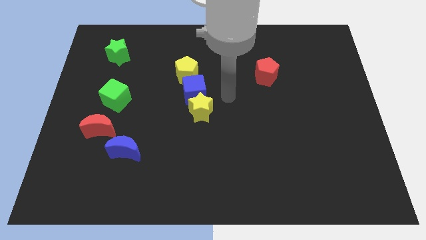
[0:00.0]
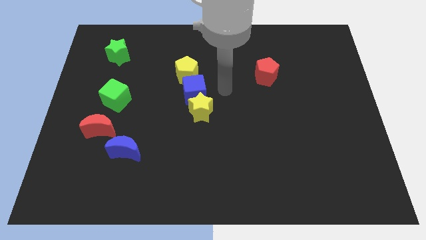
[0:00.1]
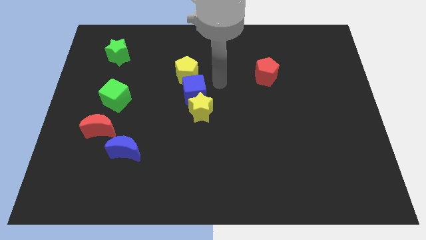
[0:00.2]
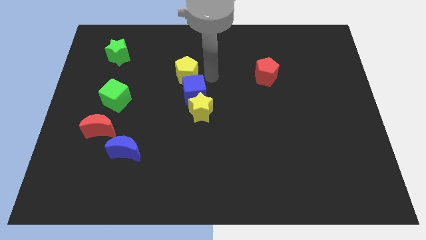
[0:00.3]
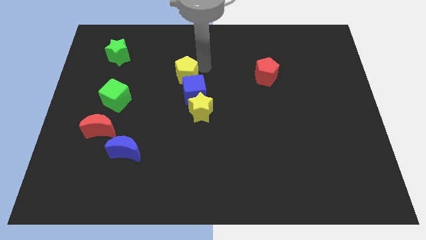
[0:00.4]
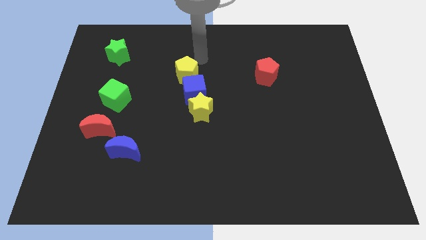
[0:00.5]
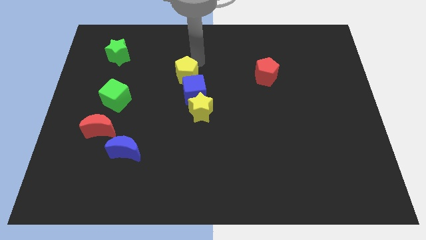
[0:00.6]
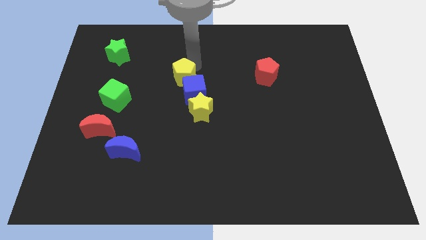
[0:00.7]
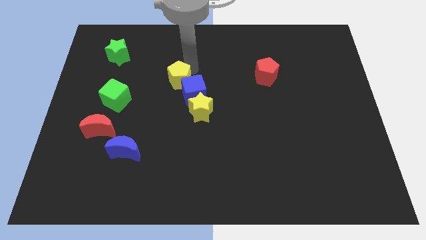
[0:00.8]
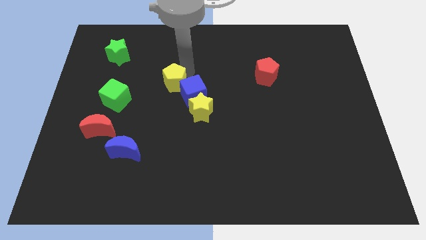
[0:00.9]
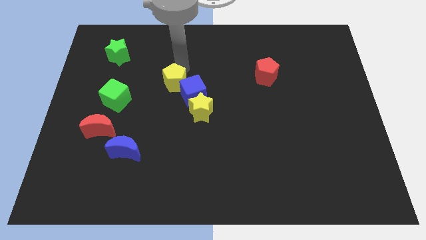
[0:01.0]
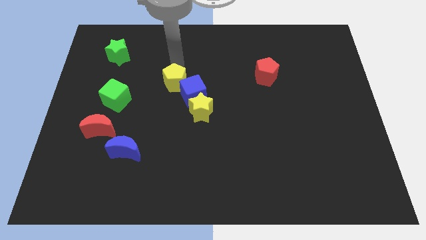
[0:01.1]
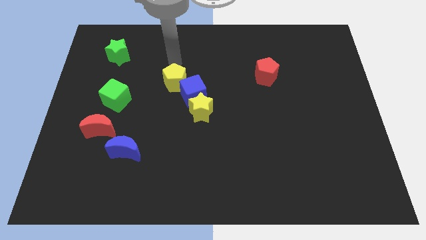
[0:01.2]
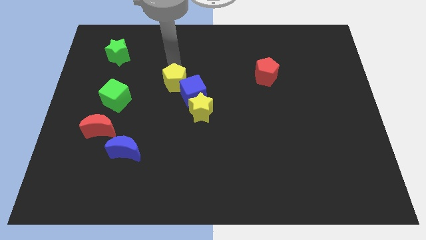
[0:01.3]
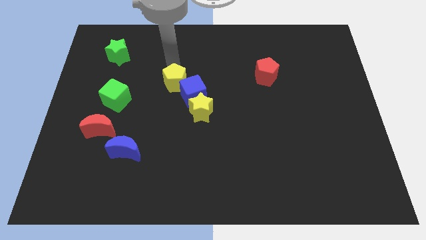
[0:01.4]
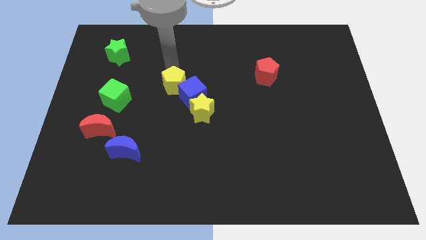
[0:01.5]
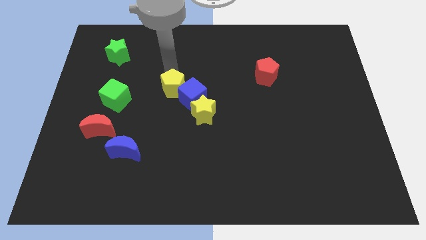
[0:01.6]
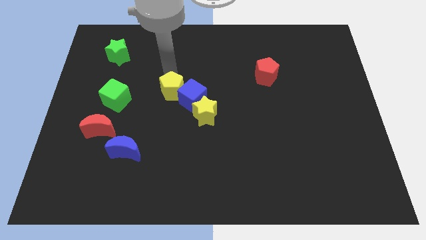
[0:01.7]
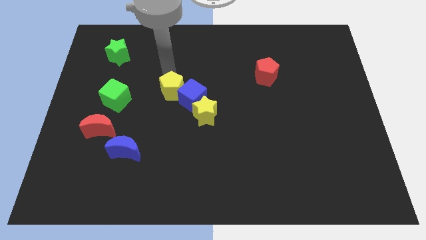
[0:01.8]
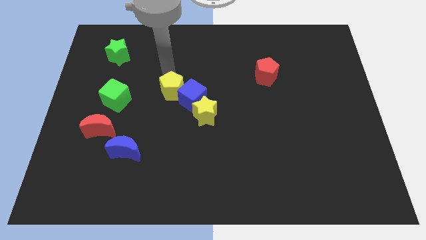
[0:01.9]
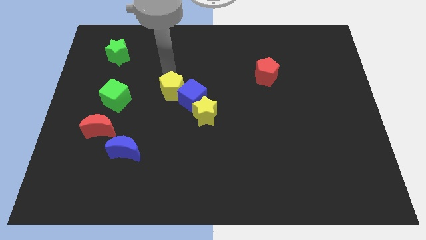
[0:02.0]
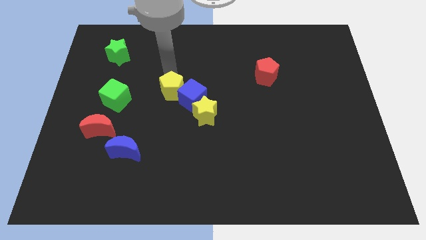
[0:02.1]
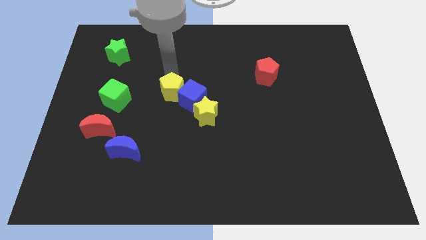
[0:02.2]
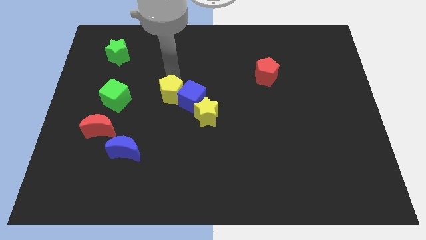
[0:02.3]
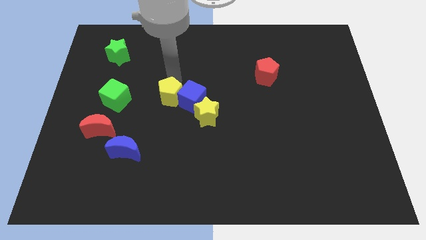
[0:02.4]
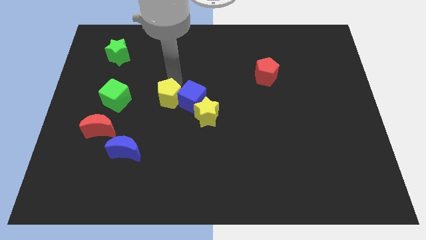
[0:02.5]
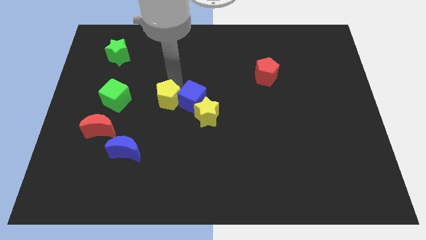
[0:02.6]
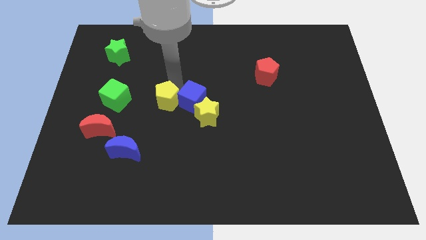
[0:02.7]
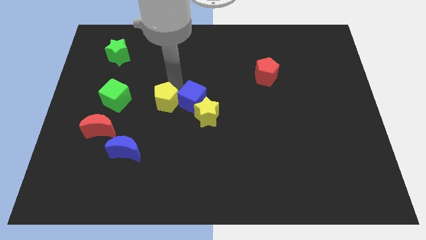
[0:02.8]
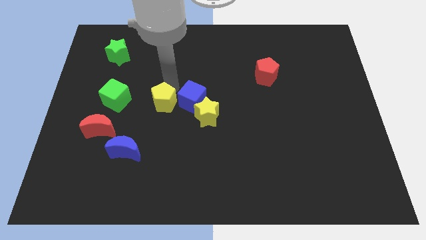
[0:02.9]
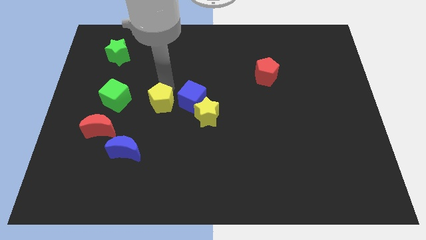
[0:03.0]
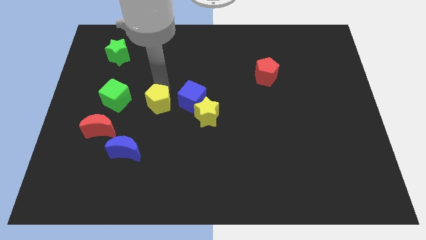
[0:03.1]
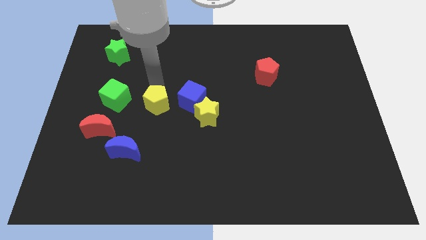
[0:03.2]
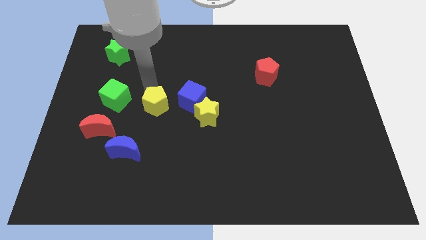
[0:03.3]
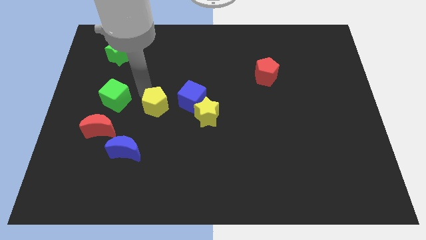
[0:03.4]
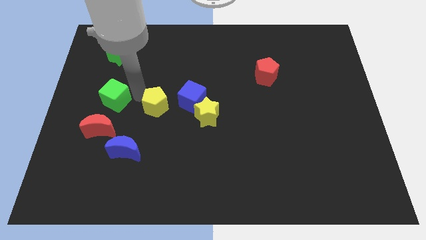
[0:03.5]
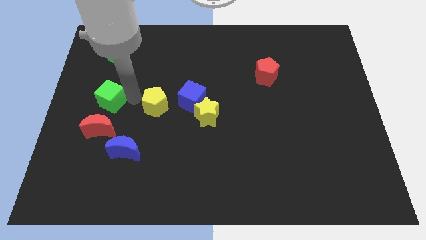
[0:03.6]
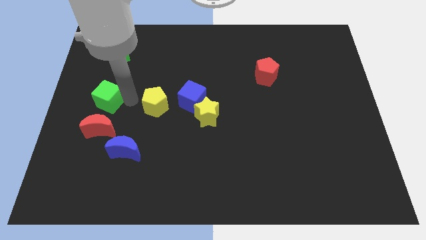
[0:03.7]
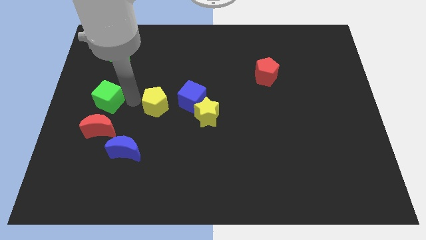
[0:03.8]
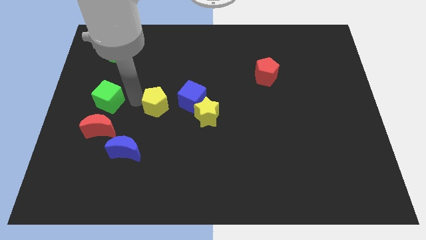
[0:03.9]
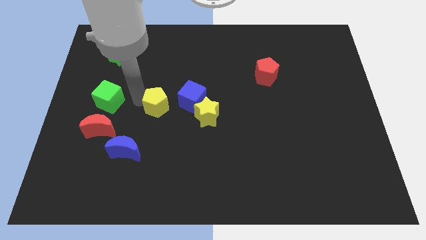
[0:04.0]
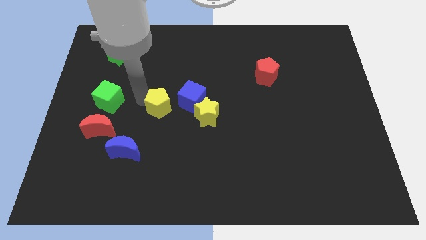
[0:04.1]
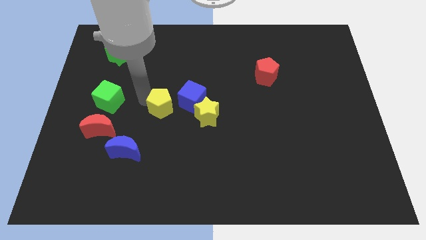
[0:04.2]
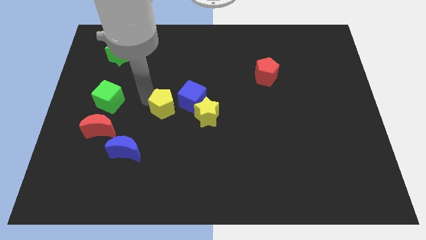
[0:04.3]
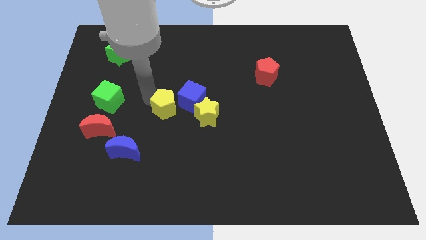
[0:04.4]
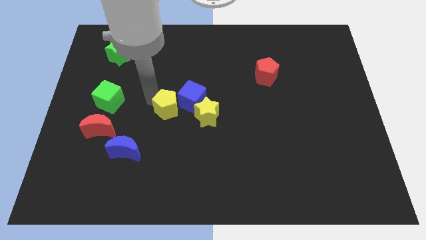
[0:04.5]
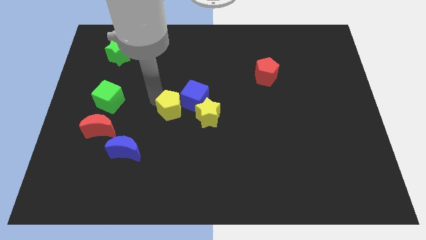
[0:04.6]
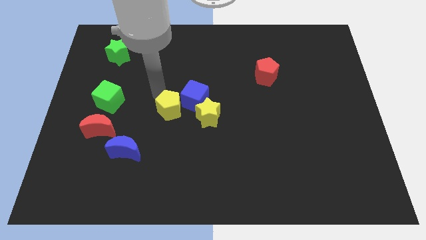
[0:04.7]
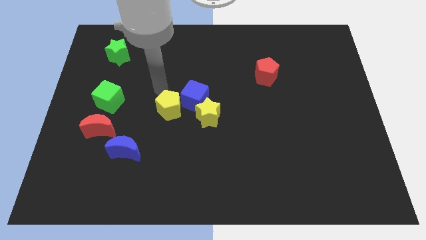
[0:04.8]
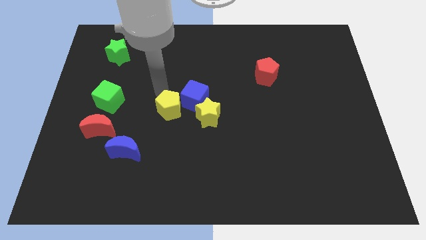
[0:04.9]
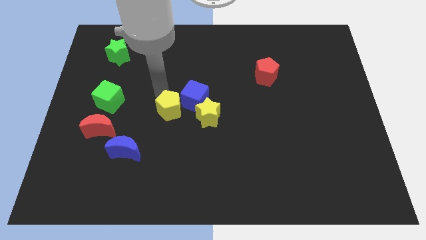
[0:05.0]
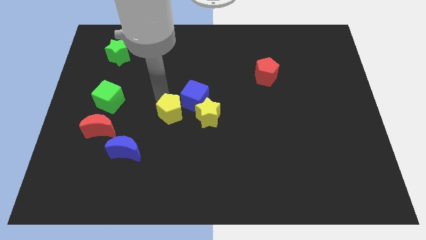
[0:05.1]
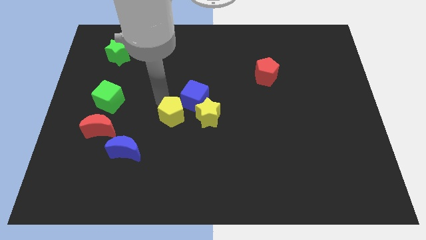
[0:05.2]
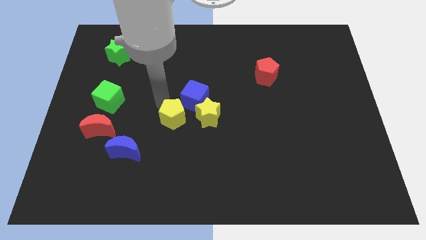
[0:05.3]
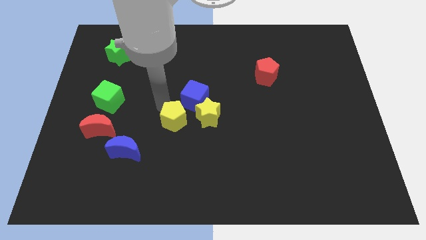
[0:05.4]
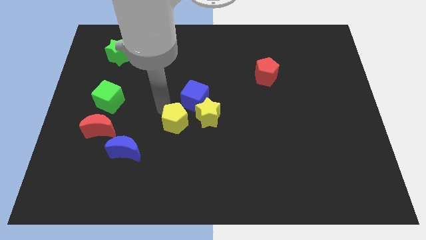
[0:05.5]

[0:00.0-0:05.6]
slide the yellow pentagon to the bottom left side of the yellow star

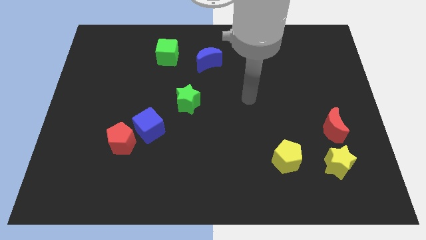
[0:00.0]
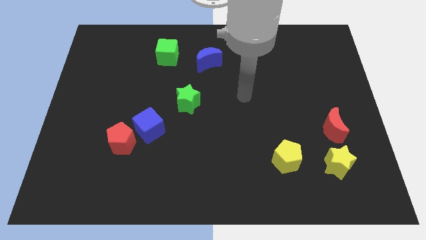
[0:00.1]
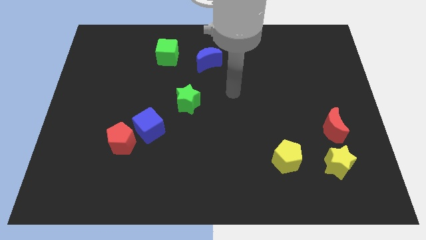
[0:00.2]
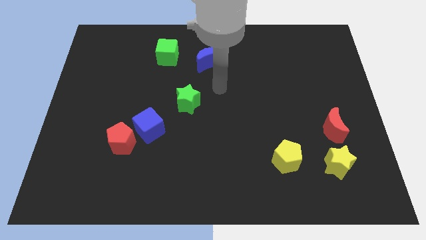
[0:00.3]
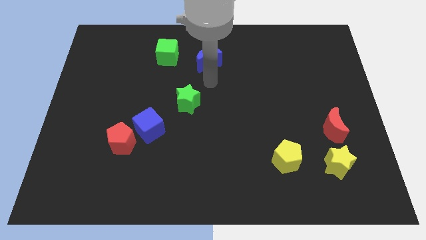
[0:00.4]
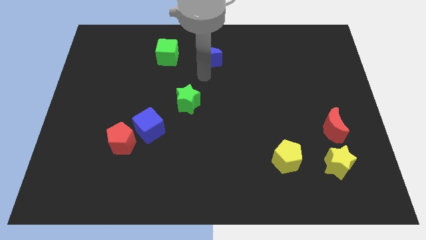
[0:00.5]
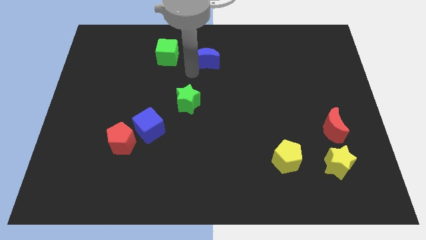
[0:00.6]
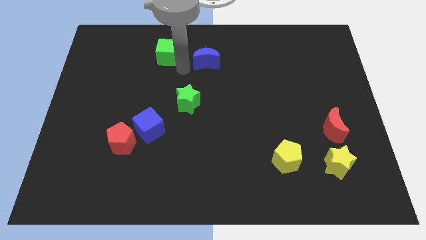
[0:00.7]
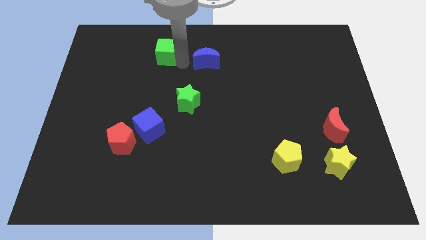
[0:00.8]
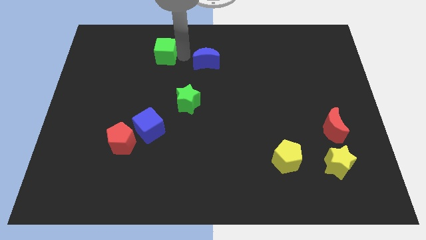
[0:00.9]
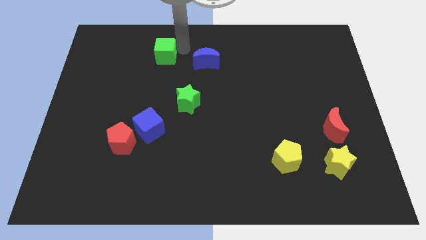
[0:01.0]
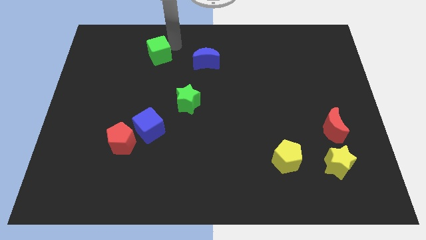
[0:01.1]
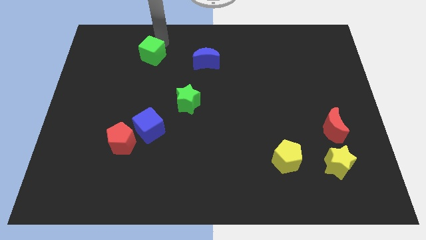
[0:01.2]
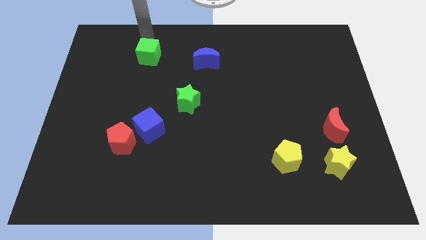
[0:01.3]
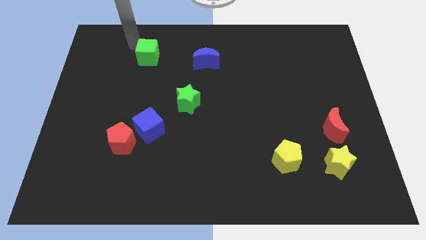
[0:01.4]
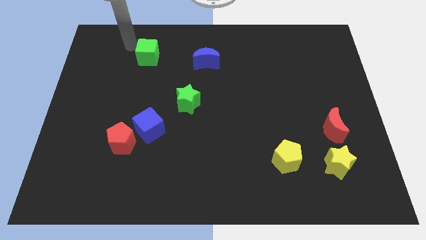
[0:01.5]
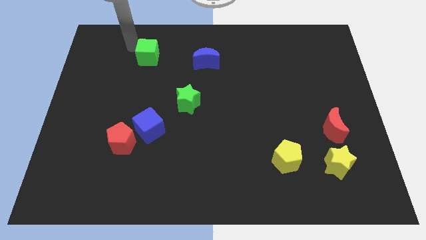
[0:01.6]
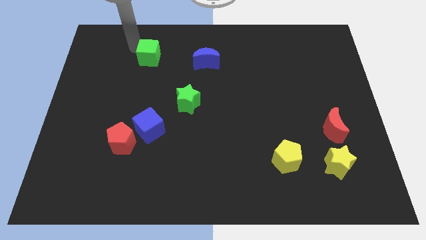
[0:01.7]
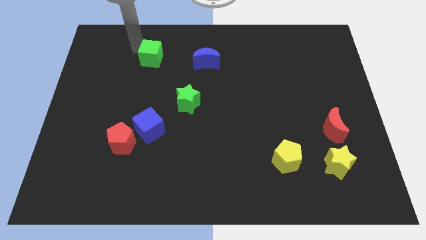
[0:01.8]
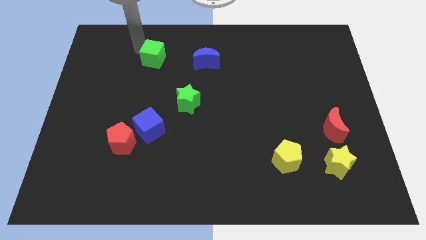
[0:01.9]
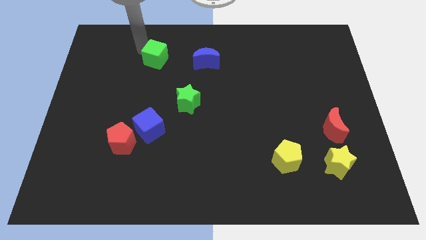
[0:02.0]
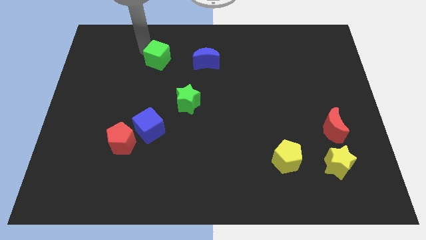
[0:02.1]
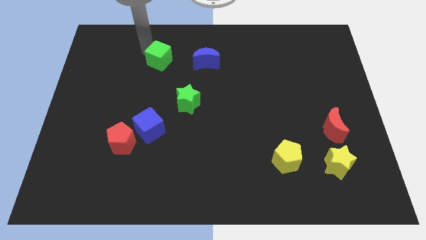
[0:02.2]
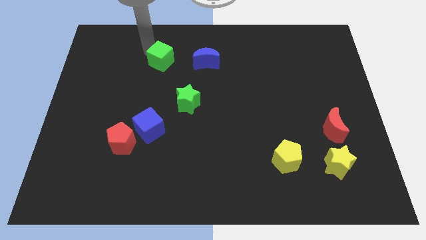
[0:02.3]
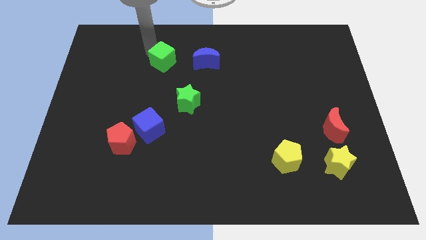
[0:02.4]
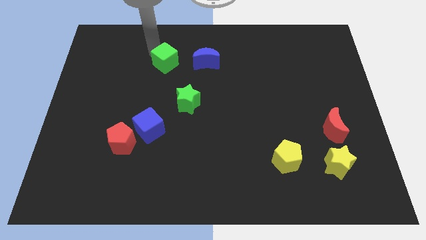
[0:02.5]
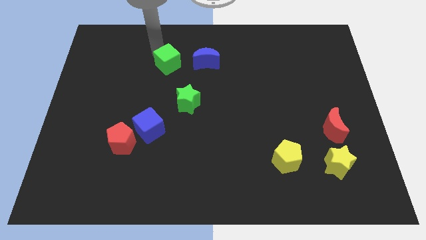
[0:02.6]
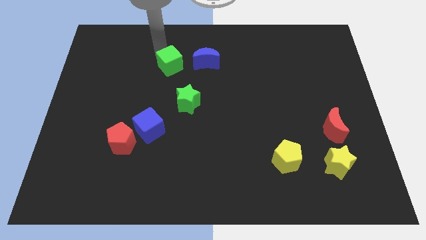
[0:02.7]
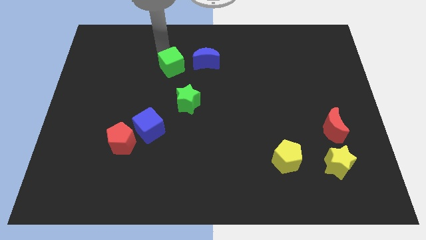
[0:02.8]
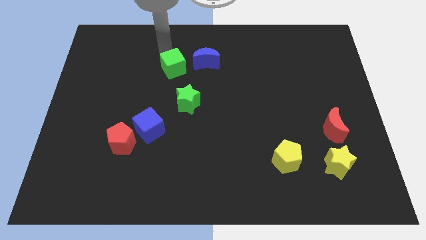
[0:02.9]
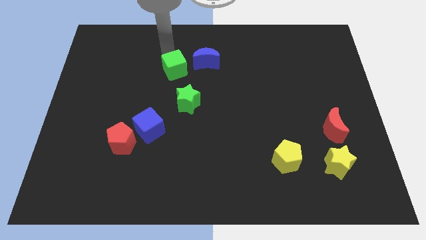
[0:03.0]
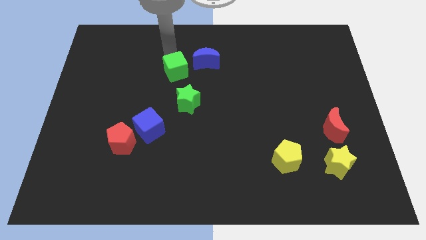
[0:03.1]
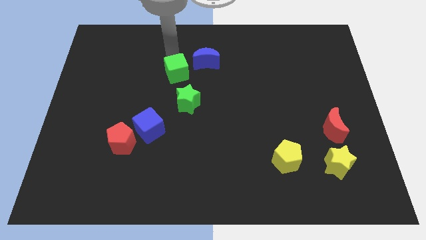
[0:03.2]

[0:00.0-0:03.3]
push the green cube diagonally up and to the left of the green star
